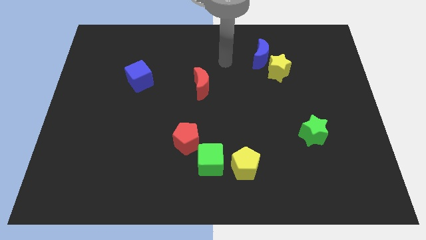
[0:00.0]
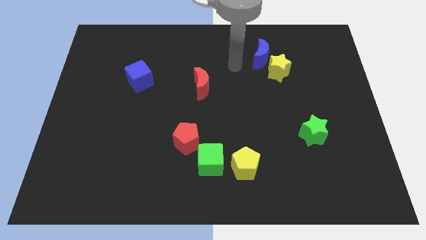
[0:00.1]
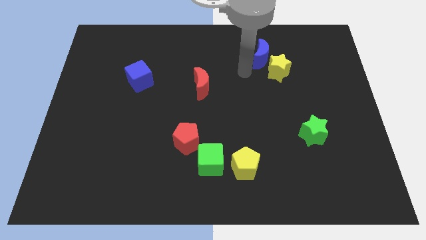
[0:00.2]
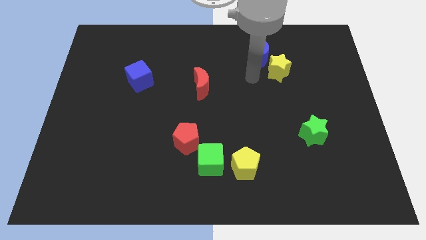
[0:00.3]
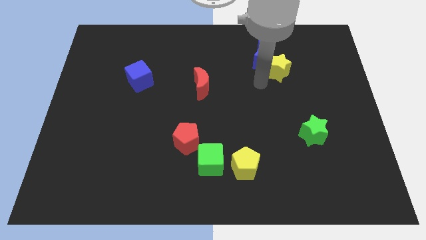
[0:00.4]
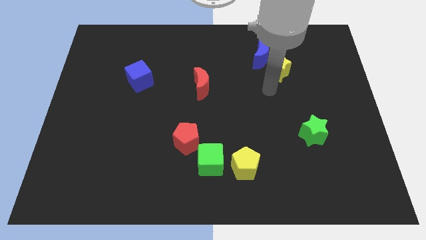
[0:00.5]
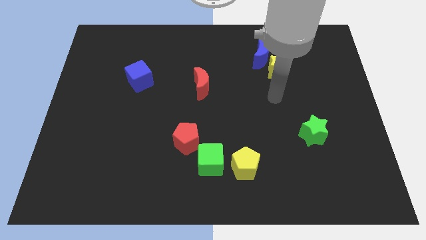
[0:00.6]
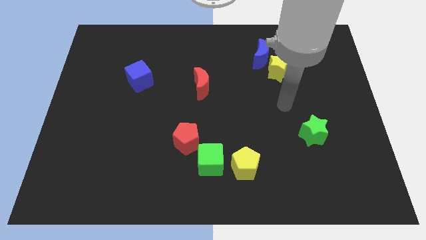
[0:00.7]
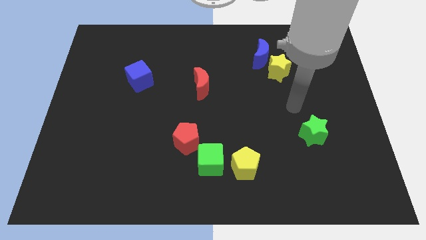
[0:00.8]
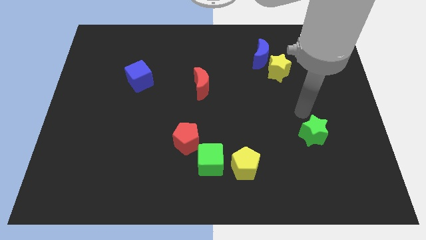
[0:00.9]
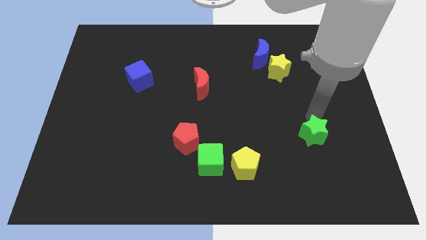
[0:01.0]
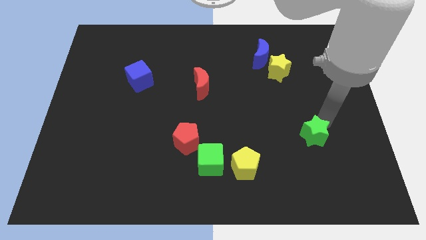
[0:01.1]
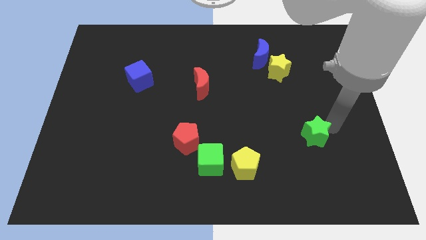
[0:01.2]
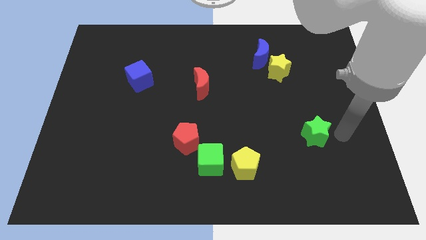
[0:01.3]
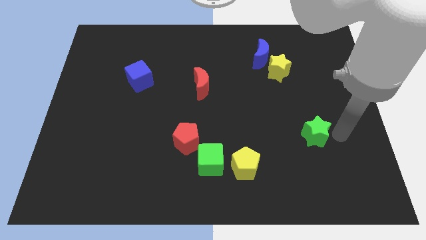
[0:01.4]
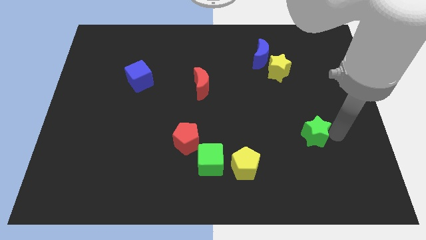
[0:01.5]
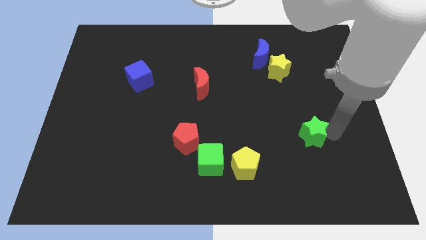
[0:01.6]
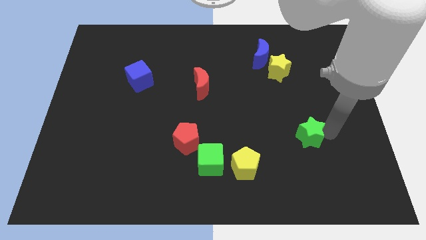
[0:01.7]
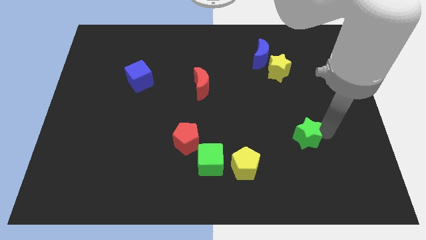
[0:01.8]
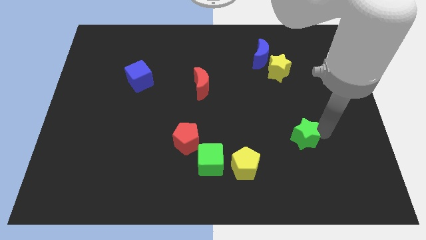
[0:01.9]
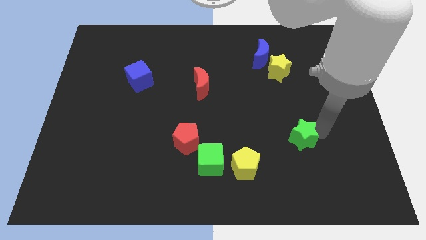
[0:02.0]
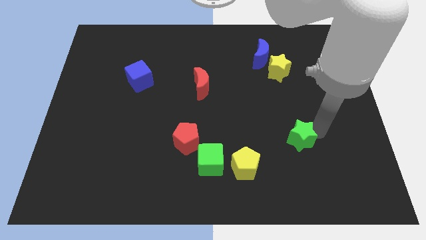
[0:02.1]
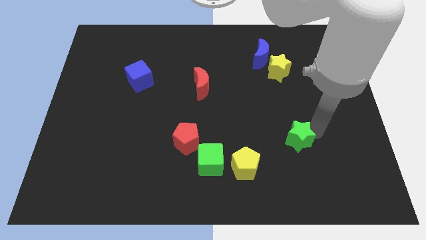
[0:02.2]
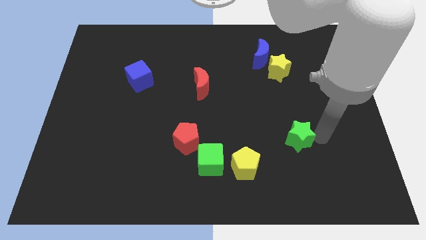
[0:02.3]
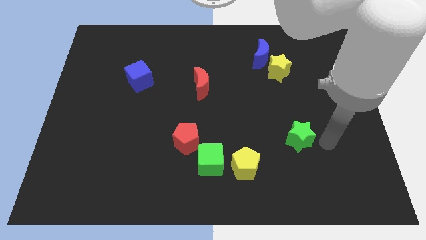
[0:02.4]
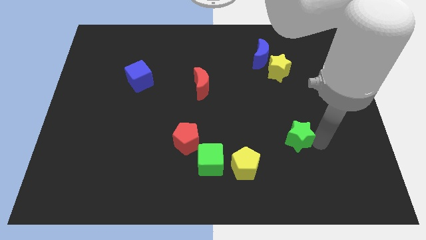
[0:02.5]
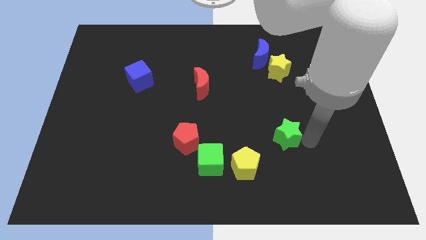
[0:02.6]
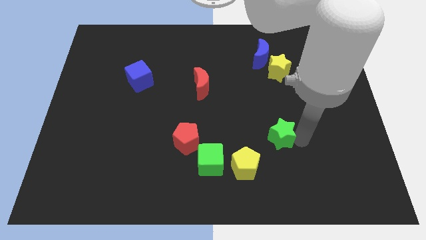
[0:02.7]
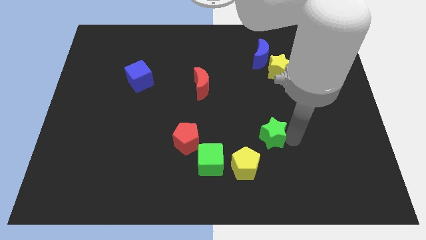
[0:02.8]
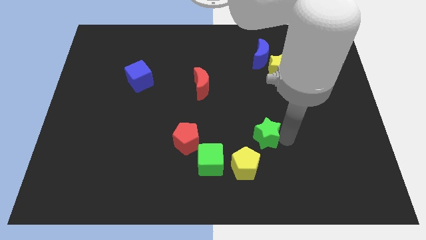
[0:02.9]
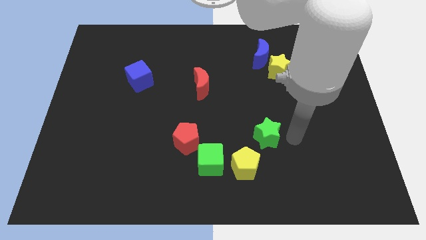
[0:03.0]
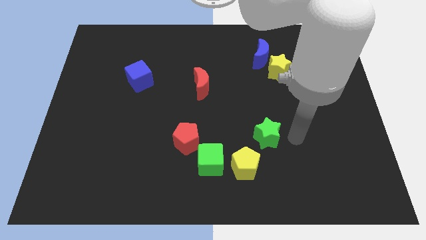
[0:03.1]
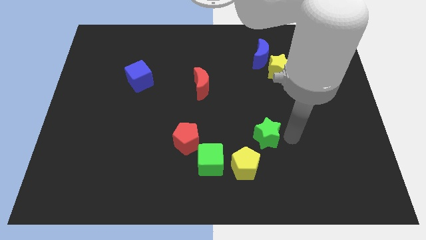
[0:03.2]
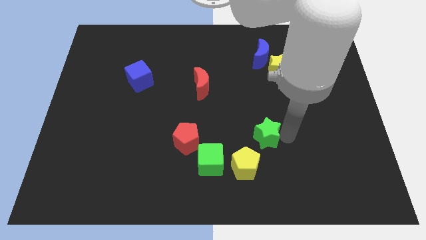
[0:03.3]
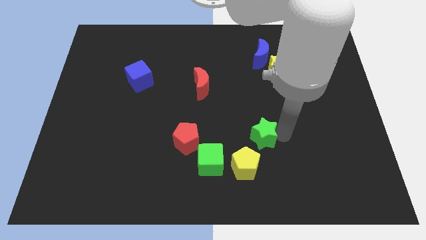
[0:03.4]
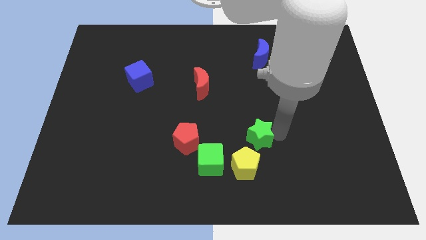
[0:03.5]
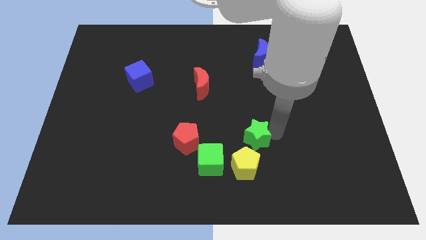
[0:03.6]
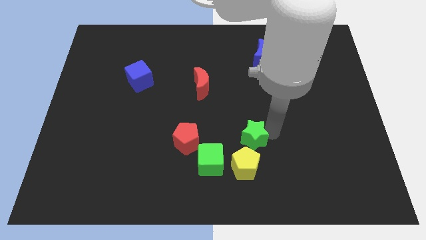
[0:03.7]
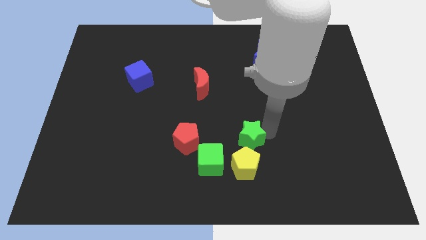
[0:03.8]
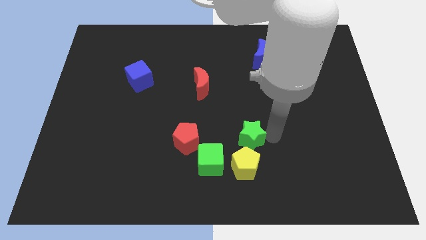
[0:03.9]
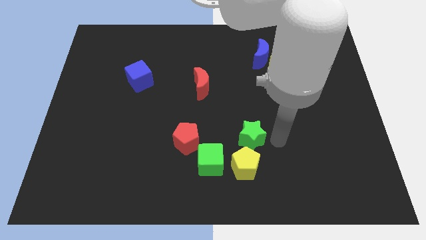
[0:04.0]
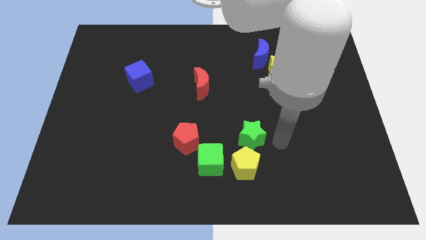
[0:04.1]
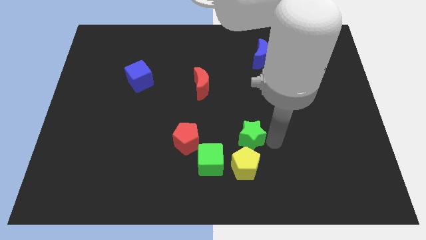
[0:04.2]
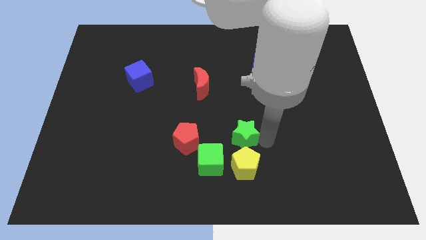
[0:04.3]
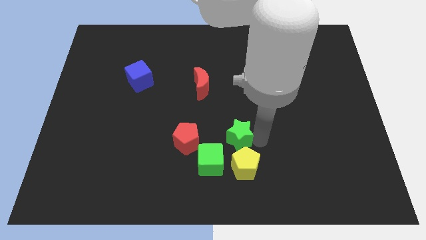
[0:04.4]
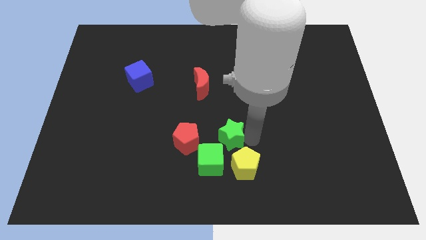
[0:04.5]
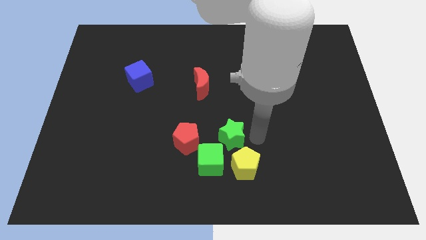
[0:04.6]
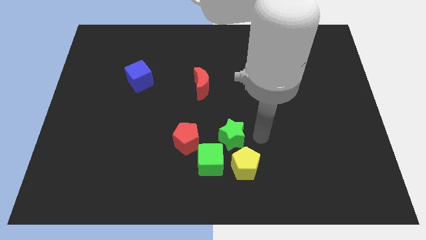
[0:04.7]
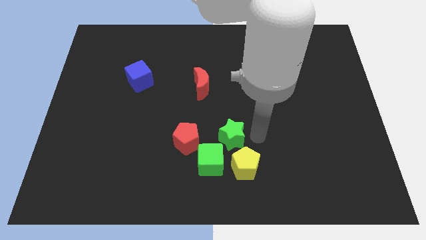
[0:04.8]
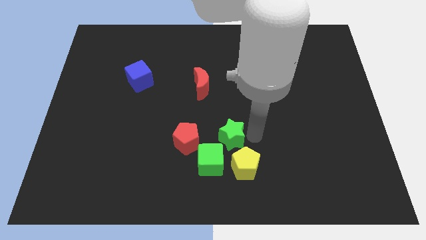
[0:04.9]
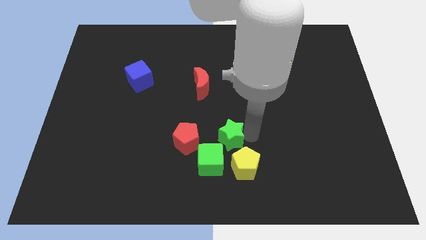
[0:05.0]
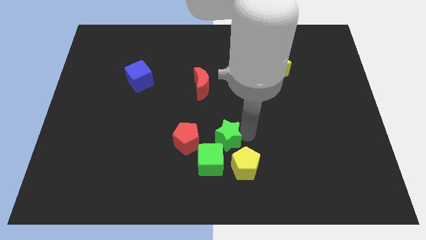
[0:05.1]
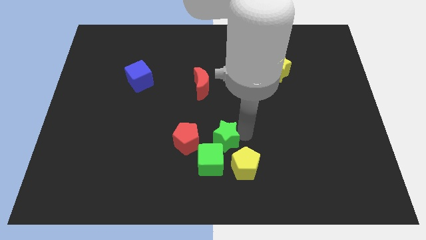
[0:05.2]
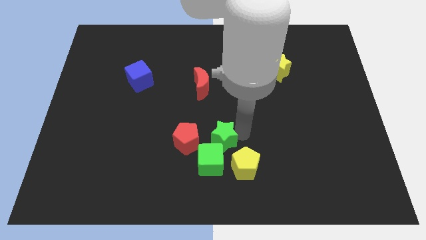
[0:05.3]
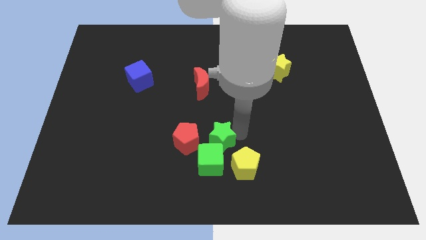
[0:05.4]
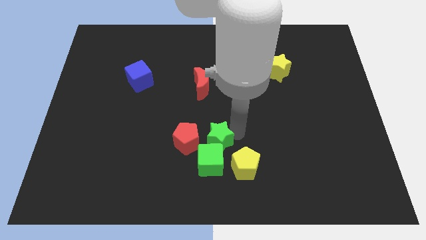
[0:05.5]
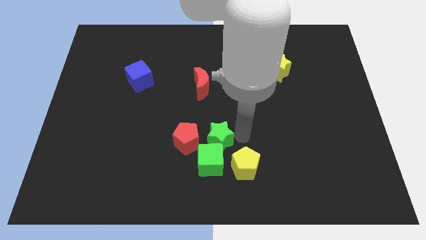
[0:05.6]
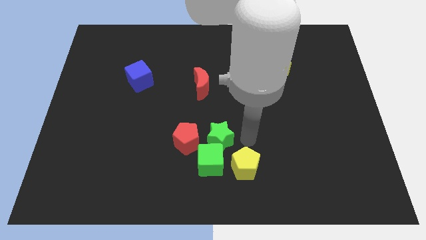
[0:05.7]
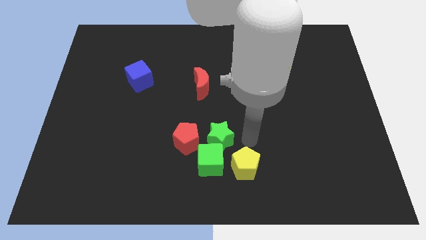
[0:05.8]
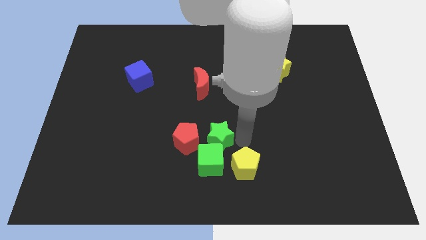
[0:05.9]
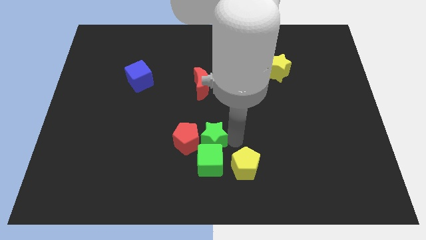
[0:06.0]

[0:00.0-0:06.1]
put the green star close to the red pentagon

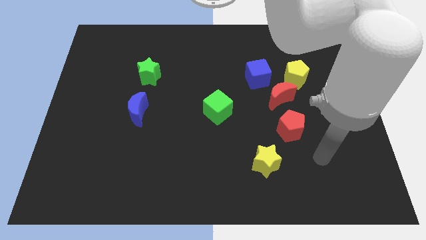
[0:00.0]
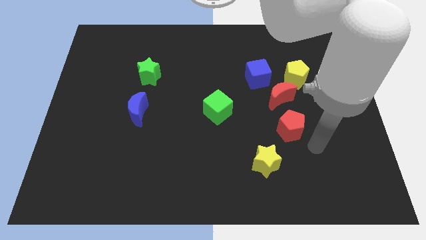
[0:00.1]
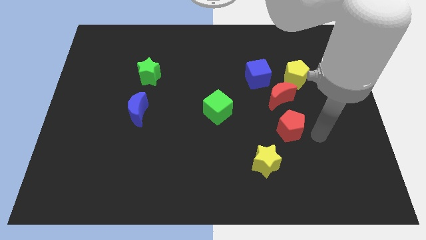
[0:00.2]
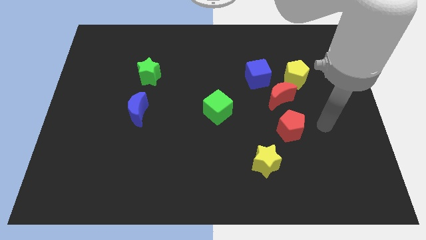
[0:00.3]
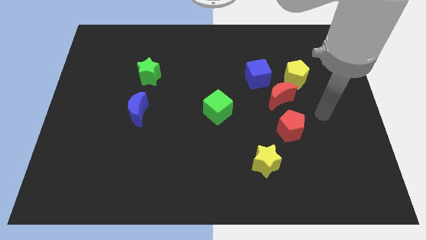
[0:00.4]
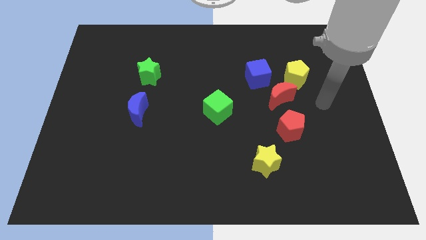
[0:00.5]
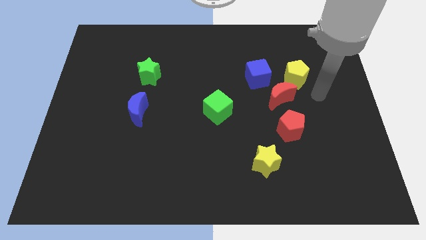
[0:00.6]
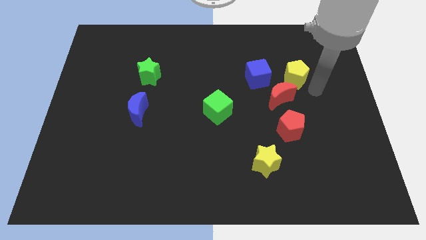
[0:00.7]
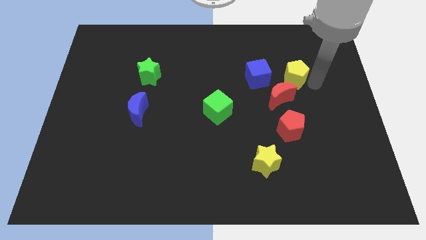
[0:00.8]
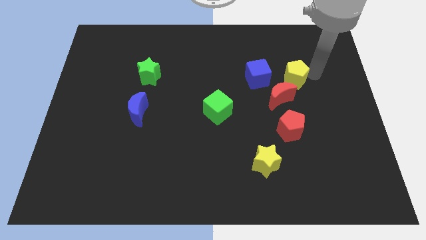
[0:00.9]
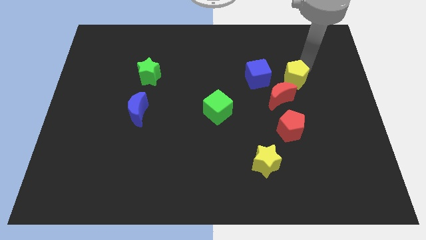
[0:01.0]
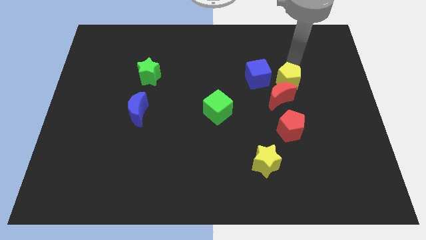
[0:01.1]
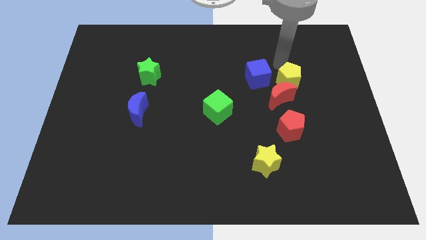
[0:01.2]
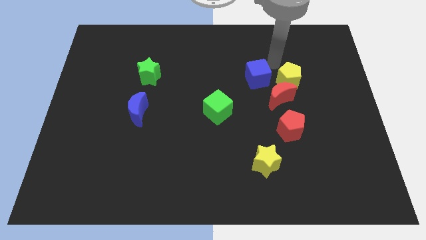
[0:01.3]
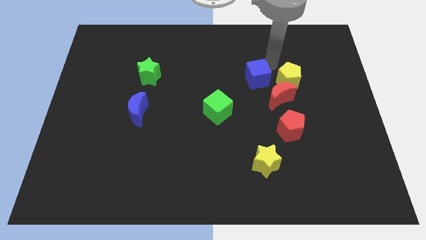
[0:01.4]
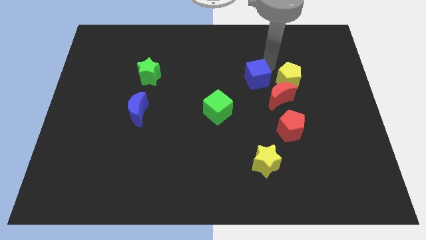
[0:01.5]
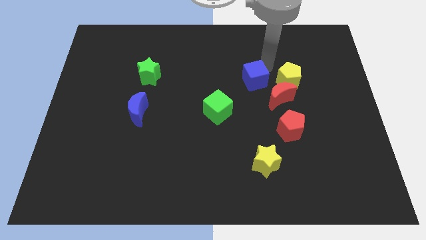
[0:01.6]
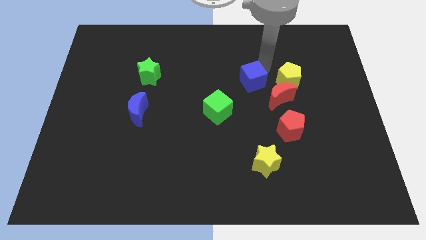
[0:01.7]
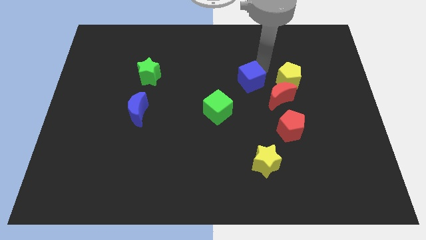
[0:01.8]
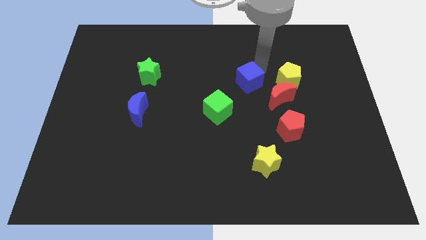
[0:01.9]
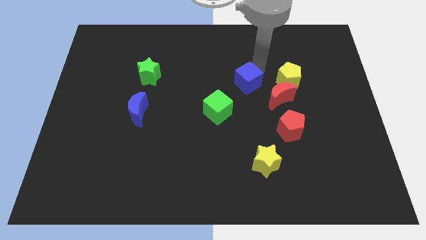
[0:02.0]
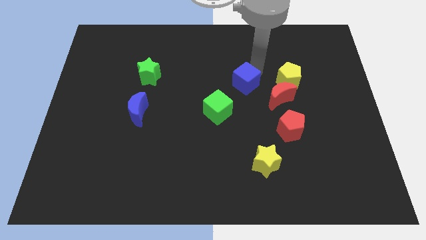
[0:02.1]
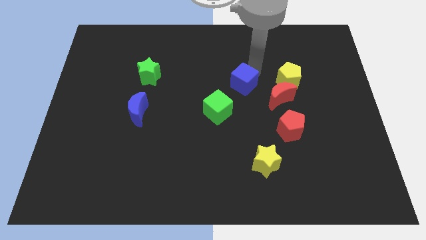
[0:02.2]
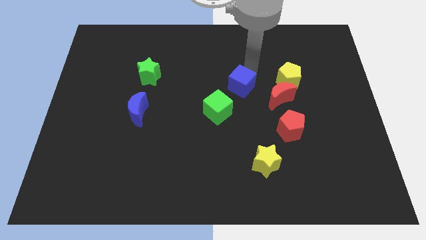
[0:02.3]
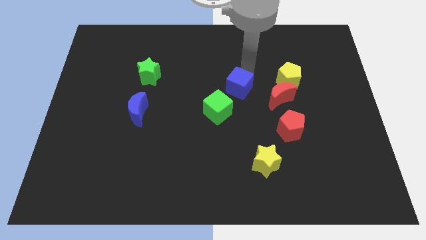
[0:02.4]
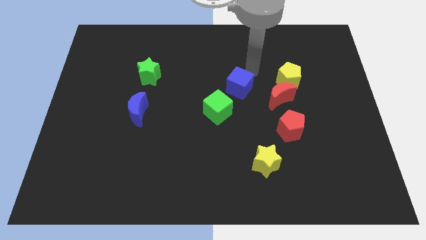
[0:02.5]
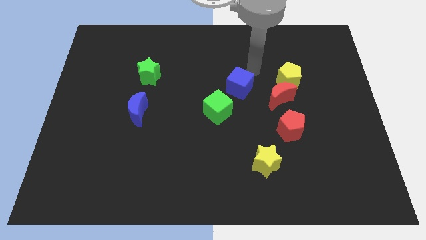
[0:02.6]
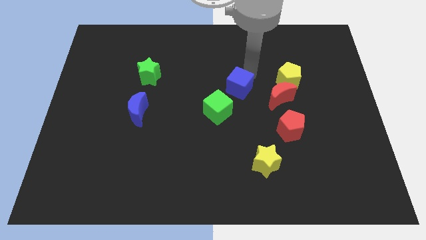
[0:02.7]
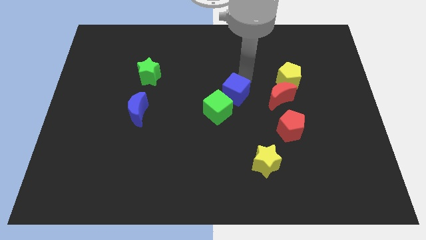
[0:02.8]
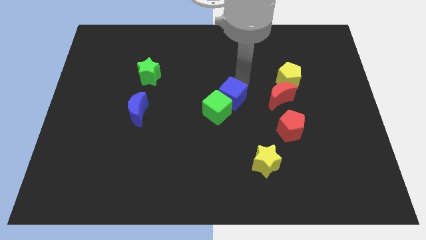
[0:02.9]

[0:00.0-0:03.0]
move the blue cube towards the green cube
